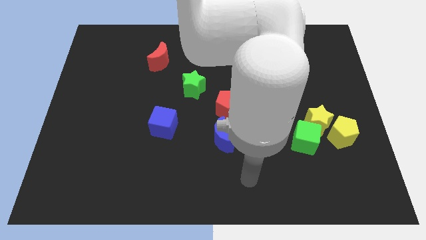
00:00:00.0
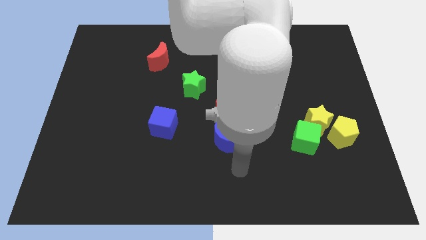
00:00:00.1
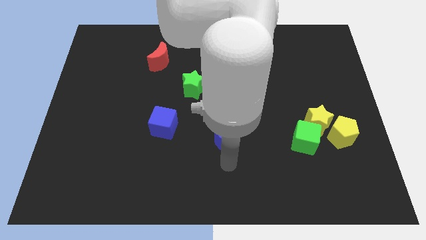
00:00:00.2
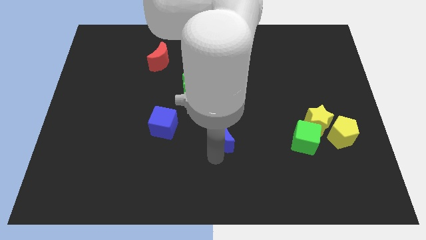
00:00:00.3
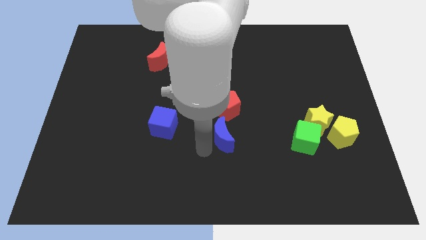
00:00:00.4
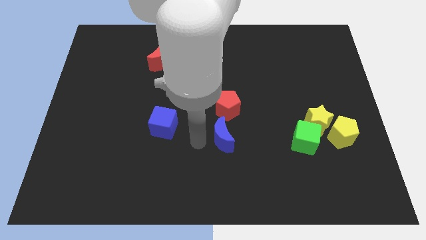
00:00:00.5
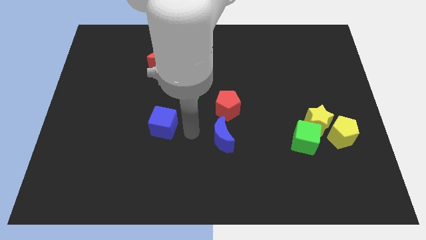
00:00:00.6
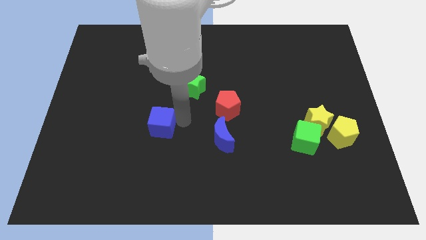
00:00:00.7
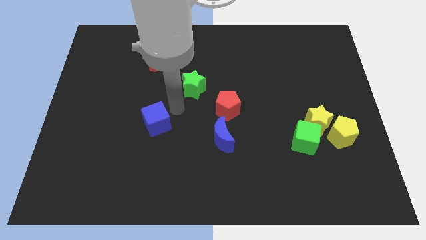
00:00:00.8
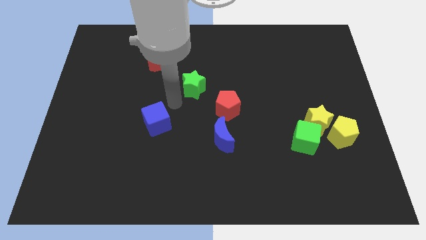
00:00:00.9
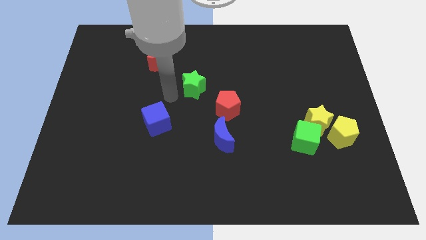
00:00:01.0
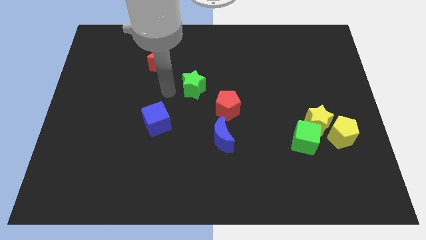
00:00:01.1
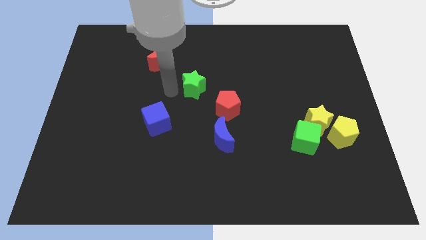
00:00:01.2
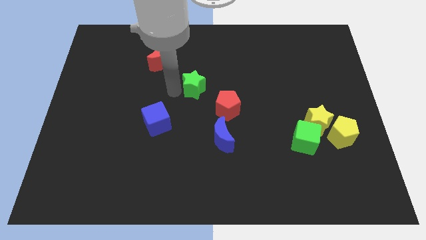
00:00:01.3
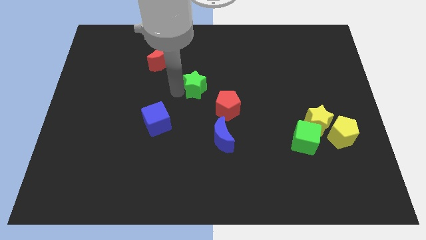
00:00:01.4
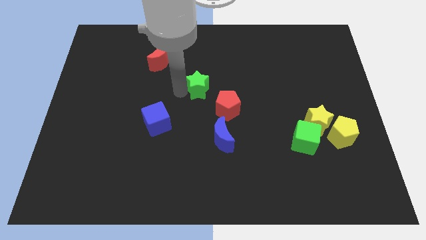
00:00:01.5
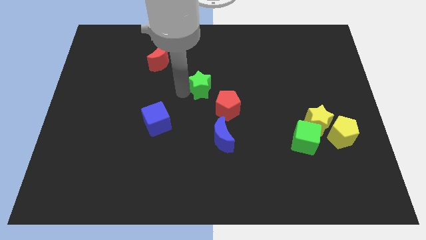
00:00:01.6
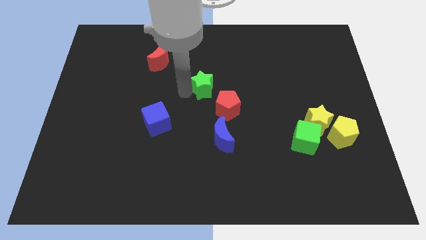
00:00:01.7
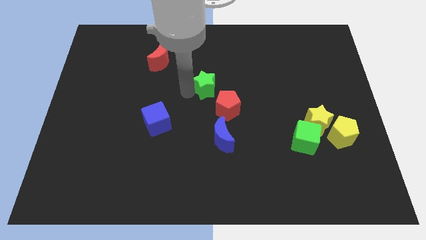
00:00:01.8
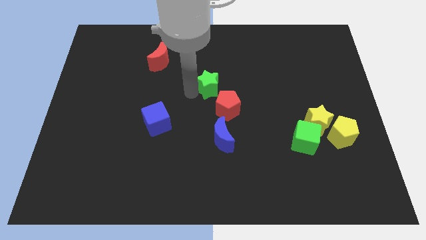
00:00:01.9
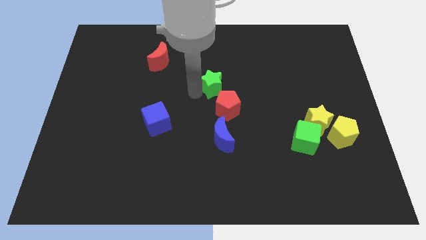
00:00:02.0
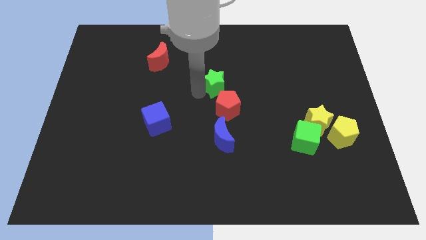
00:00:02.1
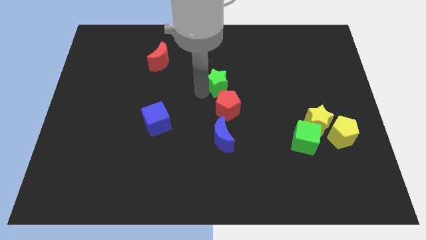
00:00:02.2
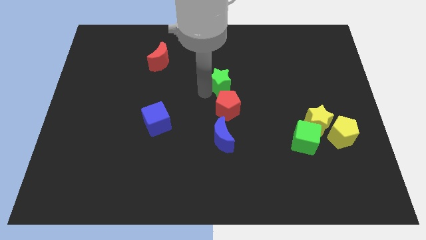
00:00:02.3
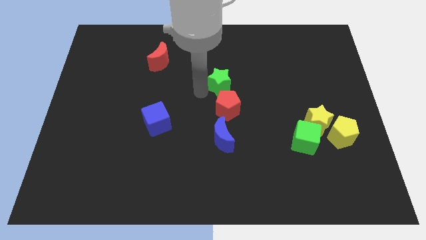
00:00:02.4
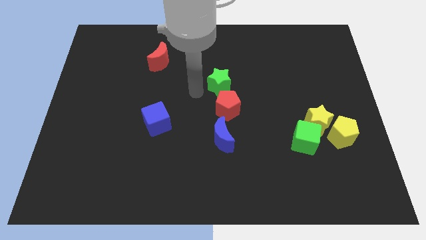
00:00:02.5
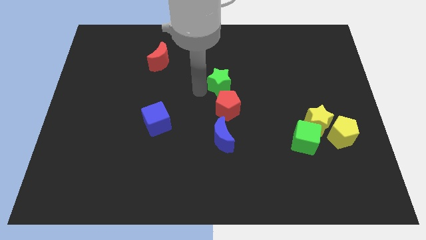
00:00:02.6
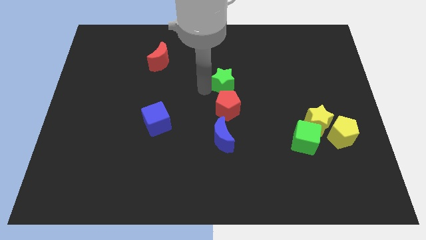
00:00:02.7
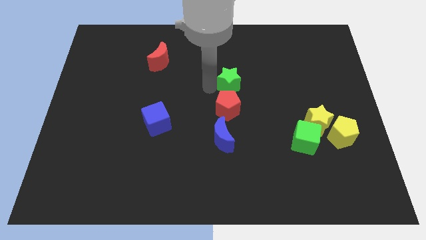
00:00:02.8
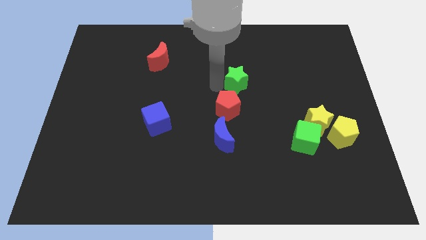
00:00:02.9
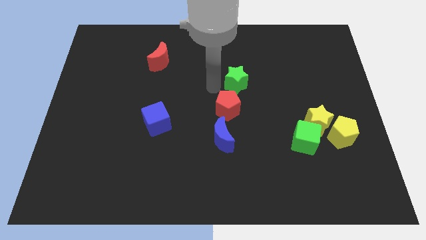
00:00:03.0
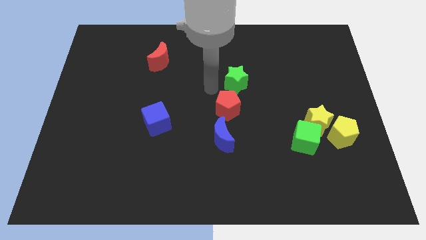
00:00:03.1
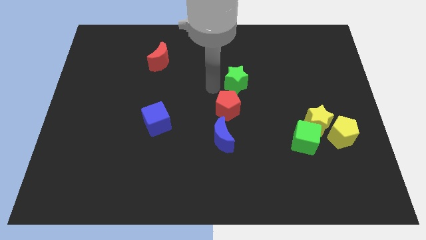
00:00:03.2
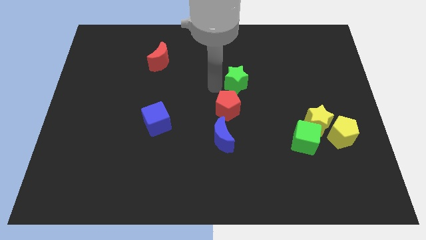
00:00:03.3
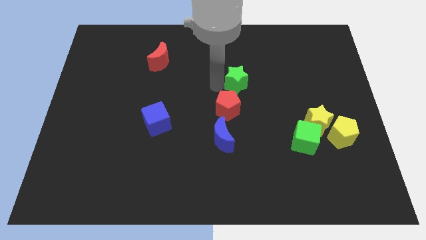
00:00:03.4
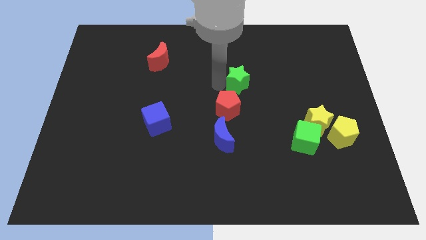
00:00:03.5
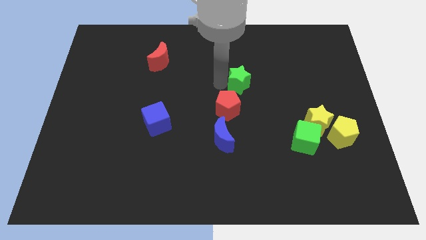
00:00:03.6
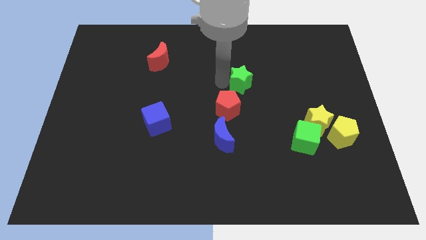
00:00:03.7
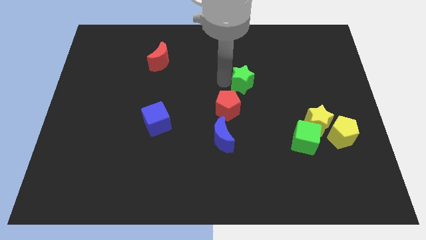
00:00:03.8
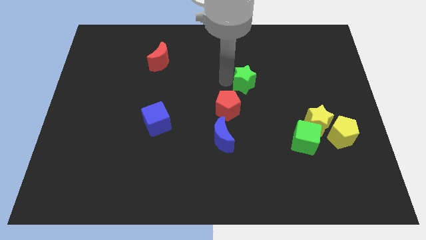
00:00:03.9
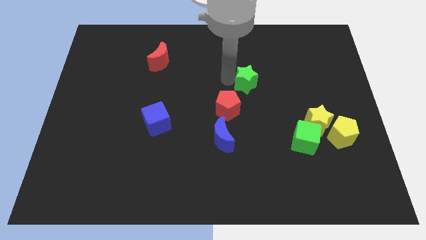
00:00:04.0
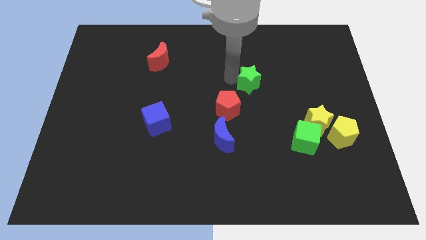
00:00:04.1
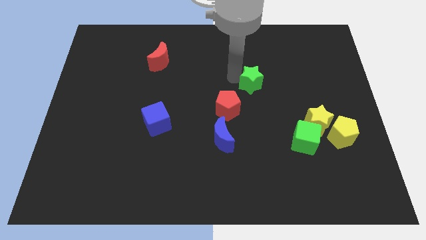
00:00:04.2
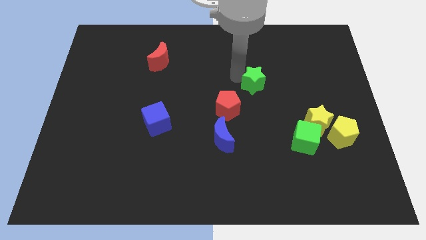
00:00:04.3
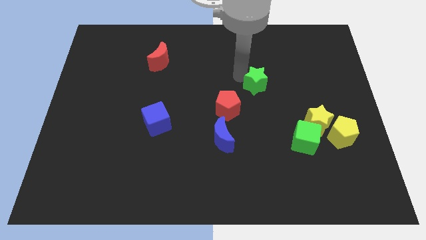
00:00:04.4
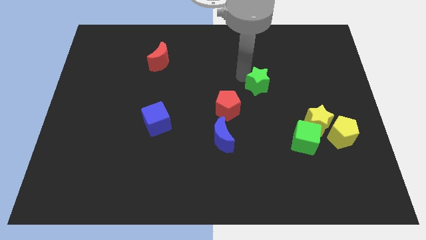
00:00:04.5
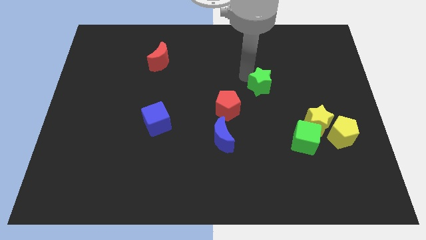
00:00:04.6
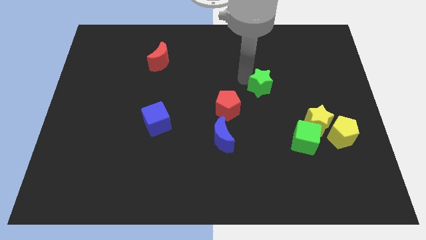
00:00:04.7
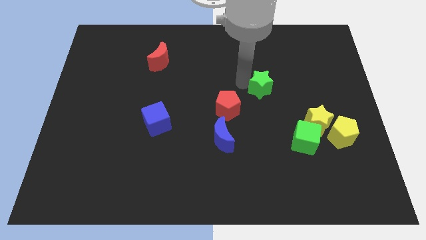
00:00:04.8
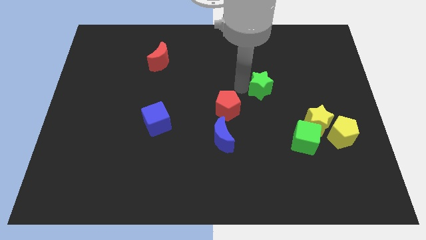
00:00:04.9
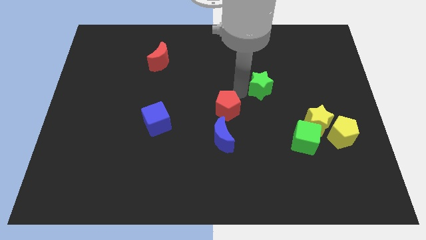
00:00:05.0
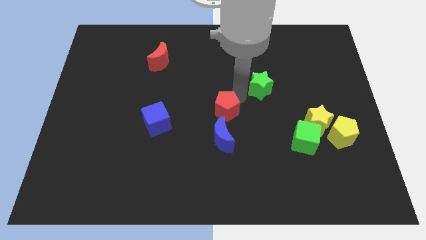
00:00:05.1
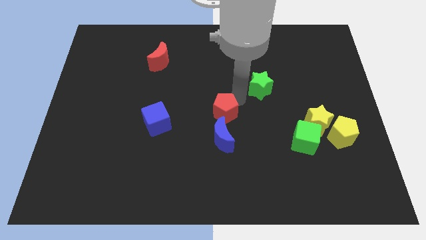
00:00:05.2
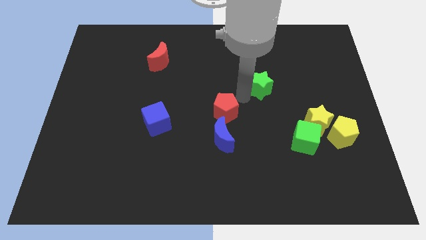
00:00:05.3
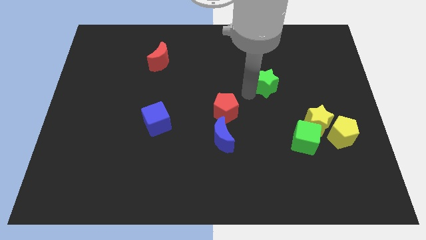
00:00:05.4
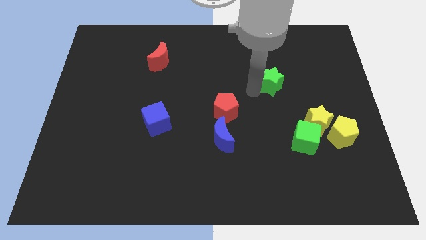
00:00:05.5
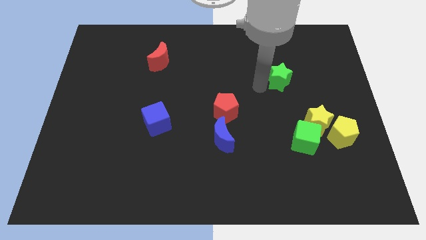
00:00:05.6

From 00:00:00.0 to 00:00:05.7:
slide the green star to the right

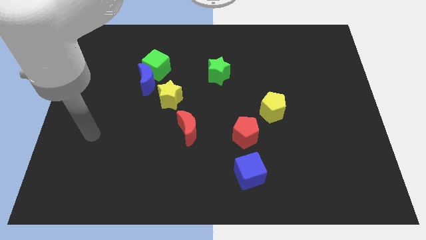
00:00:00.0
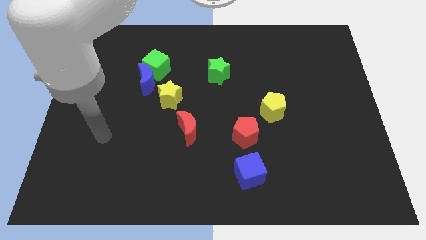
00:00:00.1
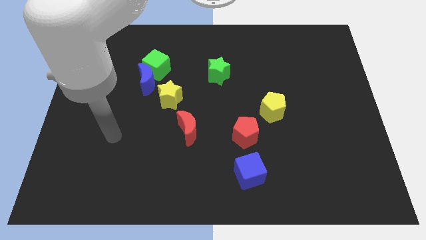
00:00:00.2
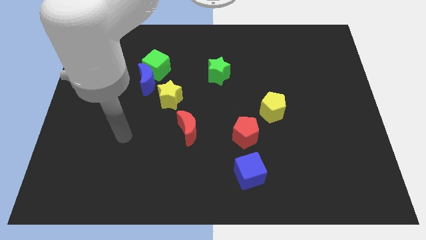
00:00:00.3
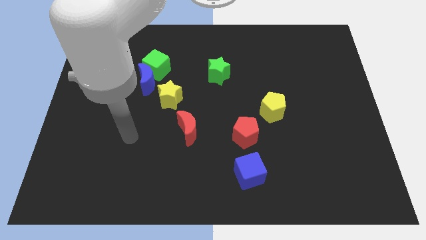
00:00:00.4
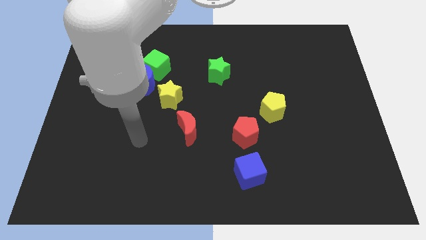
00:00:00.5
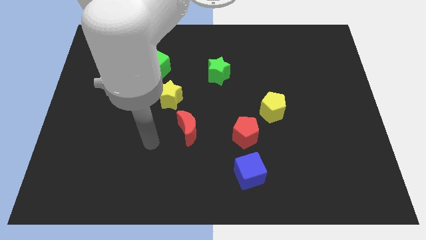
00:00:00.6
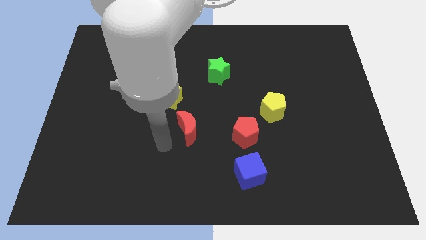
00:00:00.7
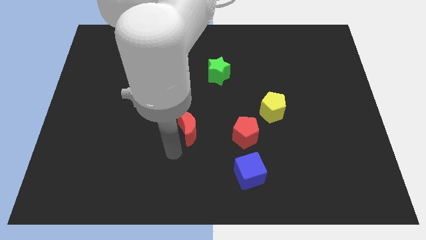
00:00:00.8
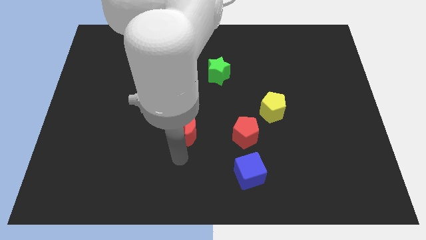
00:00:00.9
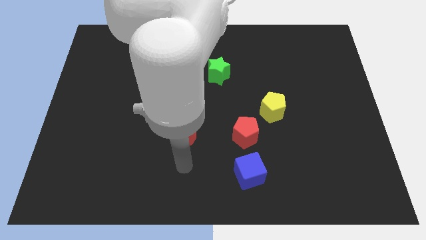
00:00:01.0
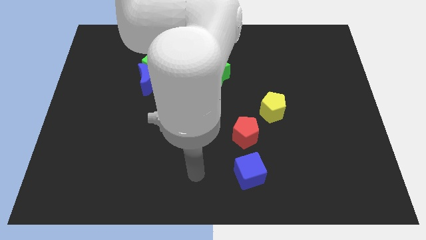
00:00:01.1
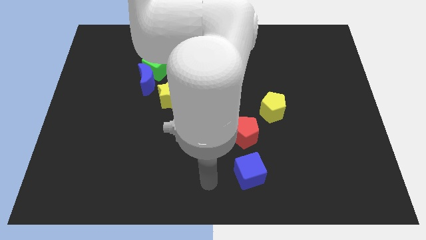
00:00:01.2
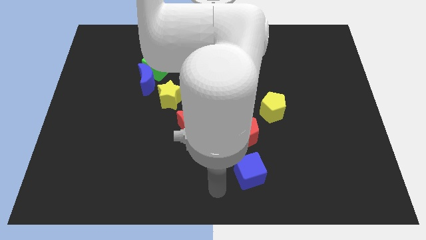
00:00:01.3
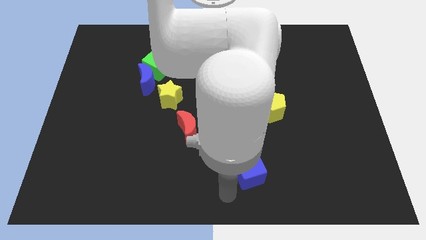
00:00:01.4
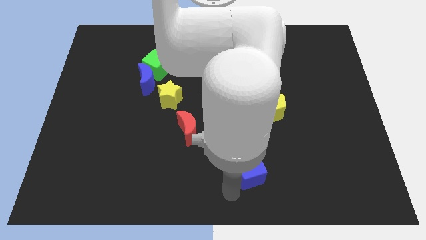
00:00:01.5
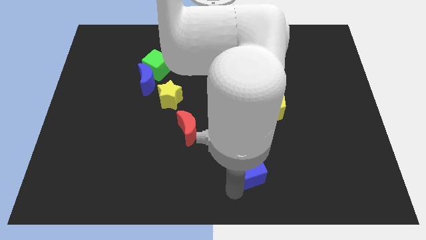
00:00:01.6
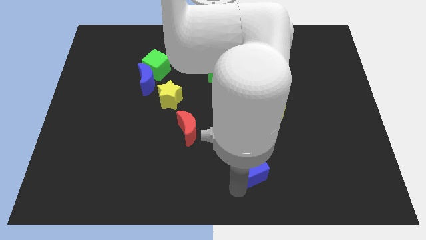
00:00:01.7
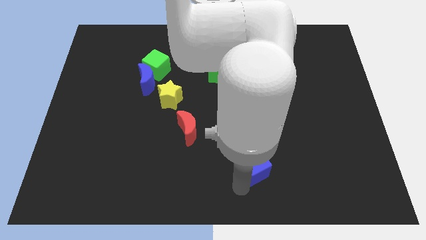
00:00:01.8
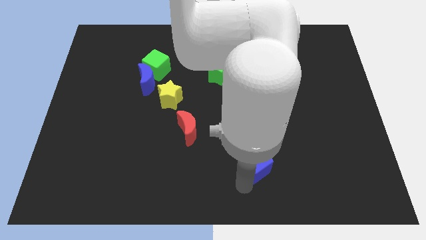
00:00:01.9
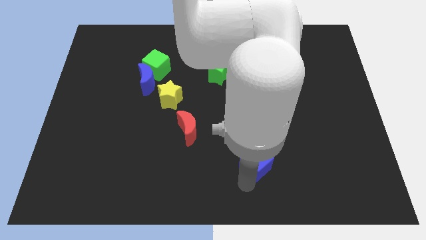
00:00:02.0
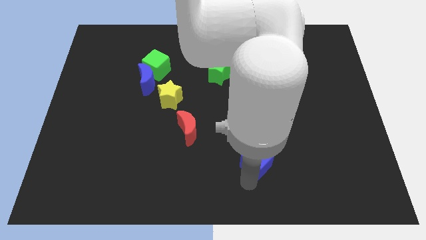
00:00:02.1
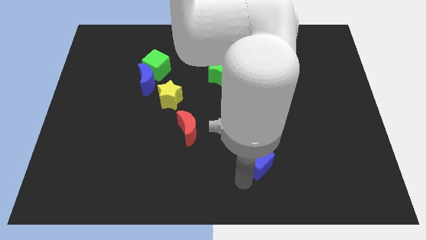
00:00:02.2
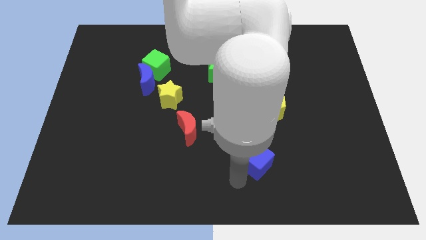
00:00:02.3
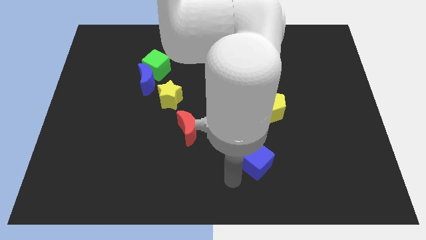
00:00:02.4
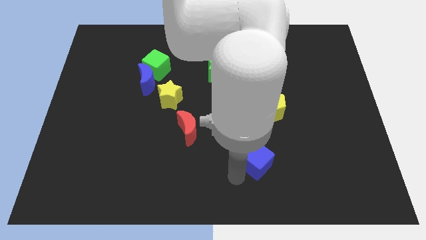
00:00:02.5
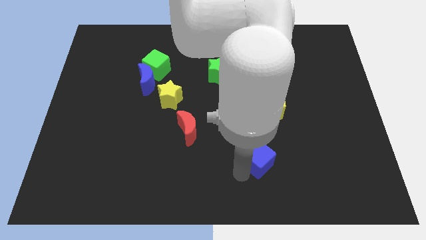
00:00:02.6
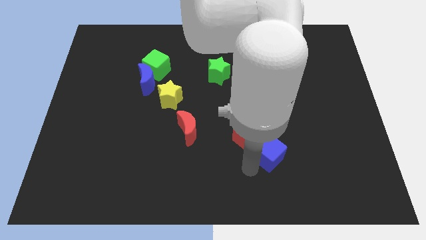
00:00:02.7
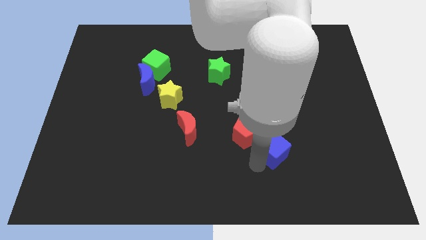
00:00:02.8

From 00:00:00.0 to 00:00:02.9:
slightly slide the blue cube upwards and then to the right
